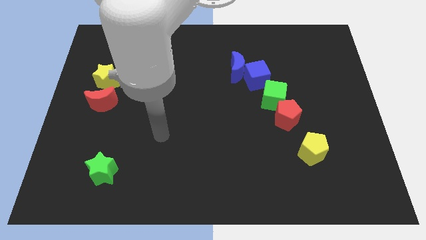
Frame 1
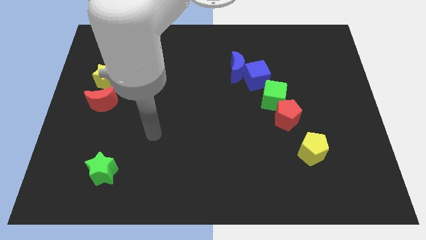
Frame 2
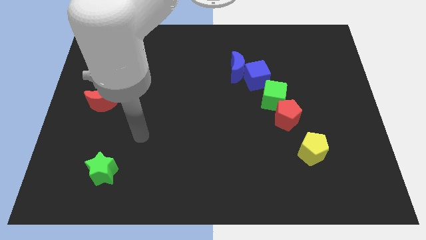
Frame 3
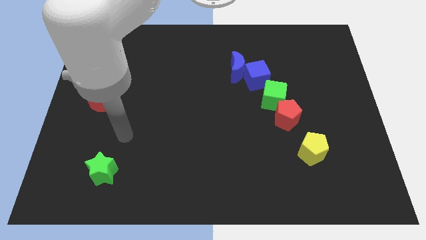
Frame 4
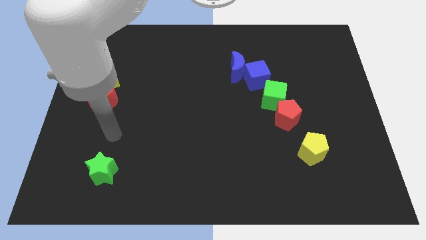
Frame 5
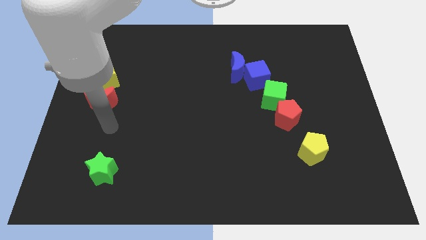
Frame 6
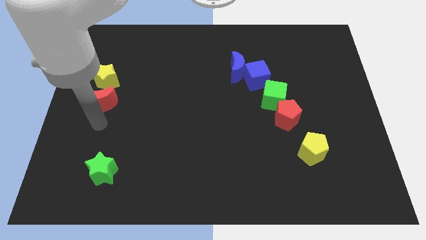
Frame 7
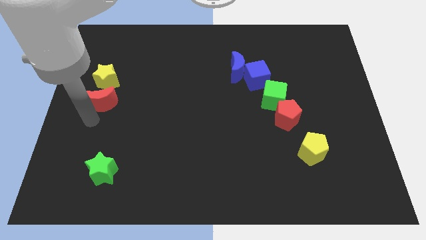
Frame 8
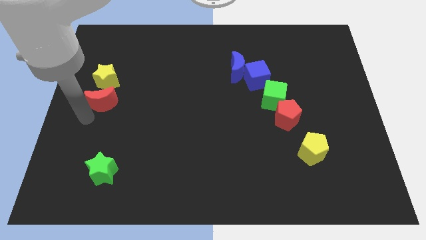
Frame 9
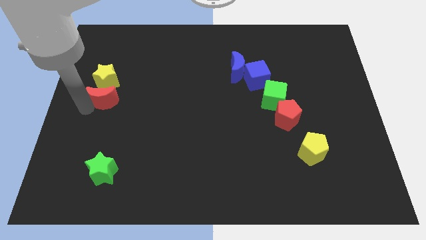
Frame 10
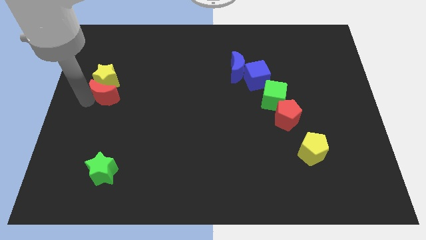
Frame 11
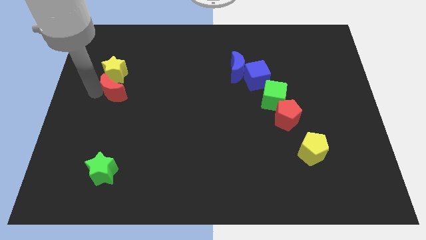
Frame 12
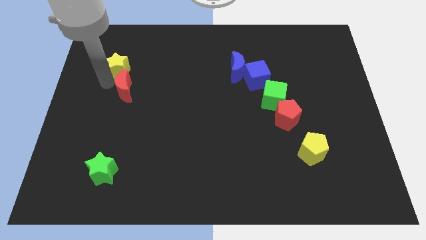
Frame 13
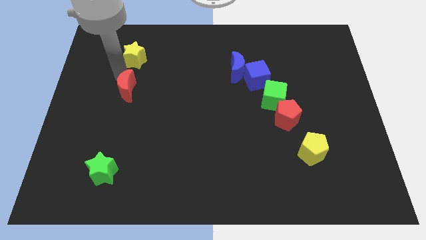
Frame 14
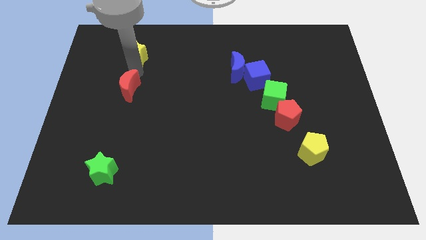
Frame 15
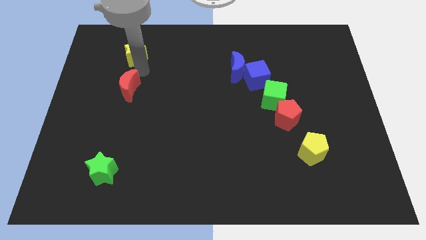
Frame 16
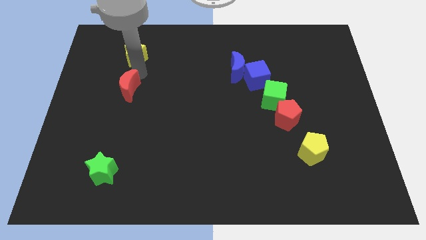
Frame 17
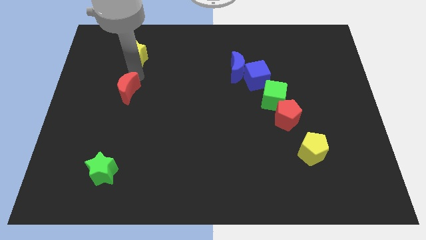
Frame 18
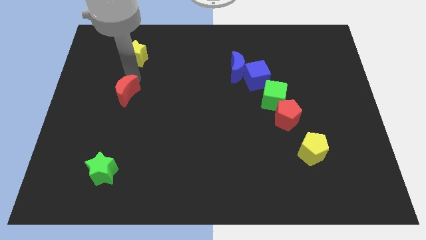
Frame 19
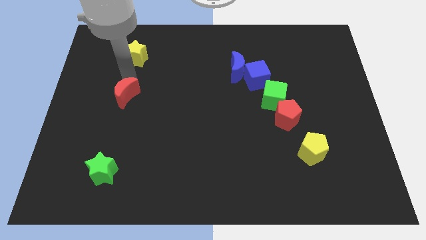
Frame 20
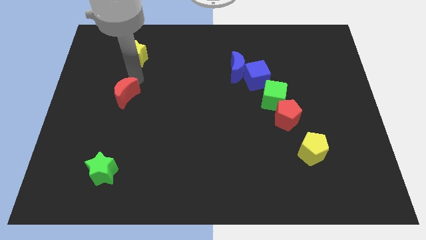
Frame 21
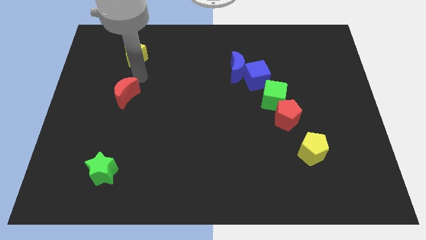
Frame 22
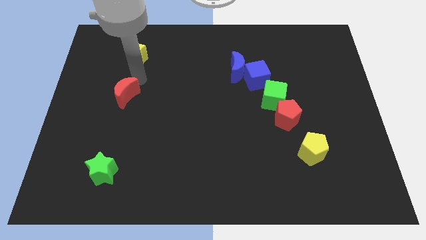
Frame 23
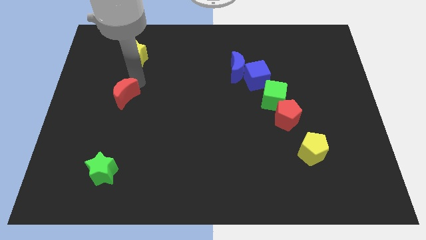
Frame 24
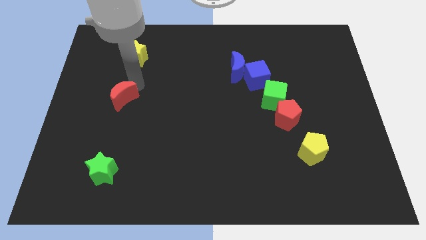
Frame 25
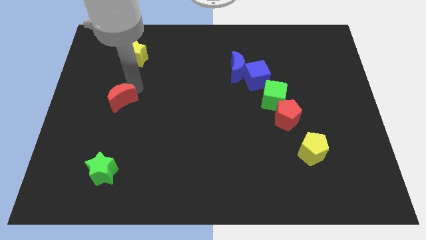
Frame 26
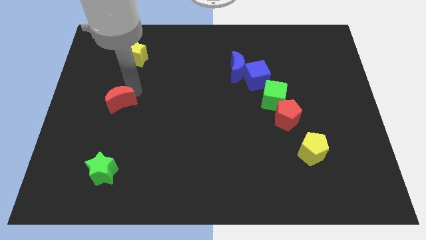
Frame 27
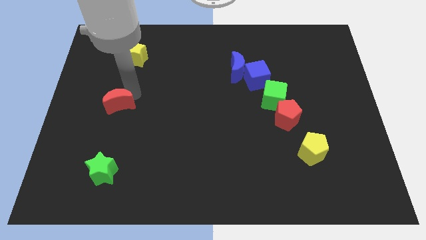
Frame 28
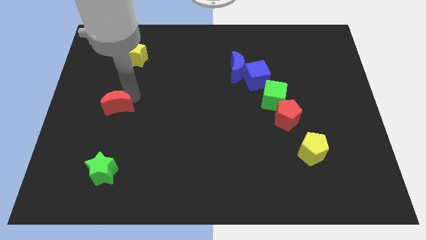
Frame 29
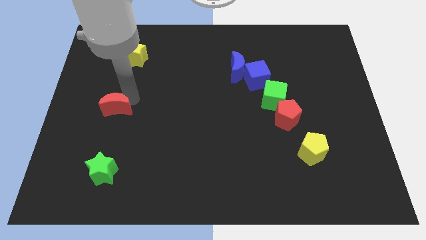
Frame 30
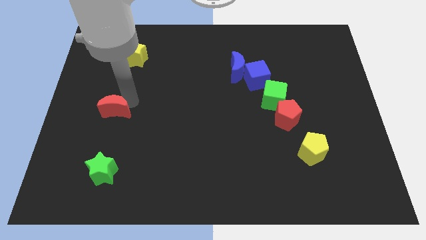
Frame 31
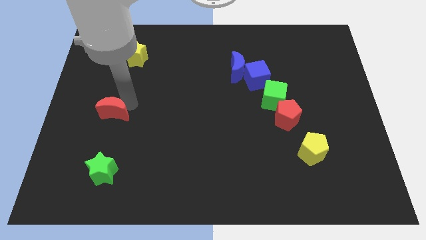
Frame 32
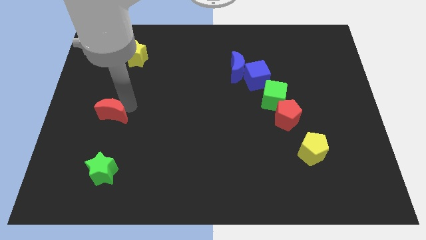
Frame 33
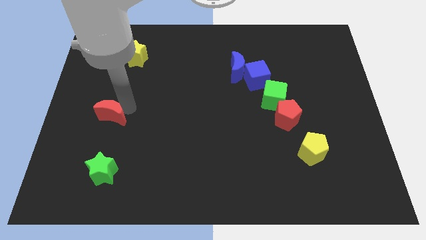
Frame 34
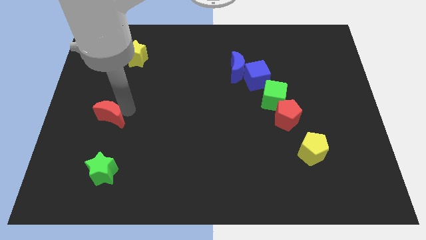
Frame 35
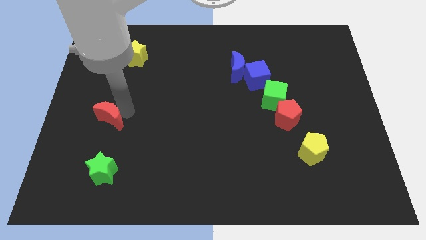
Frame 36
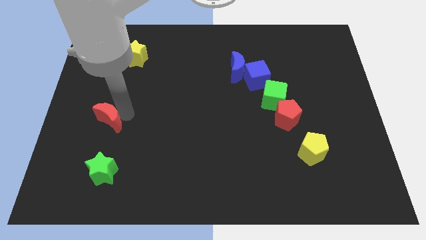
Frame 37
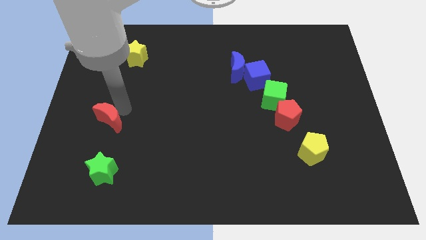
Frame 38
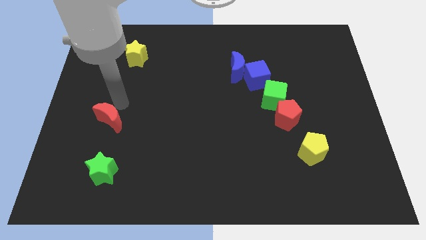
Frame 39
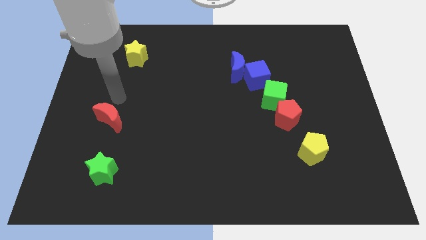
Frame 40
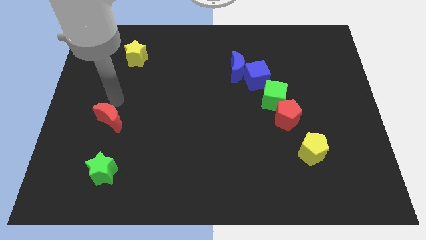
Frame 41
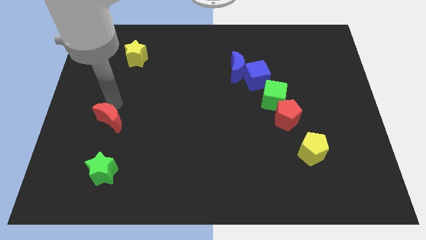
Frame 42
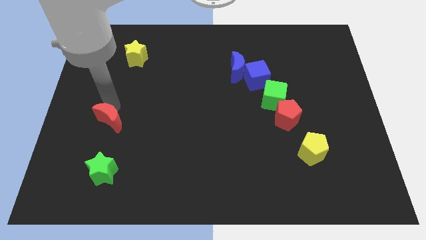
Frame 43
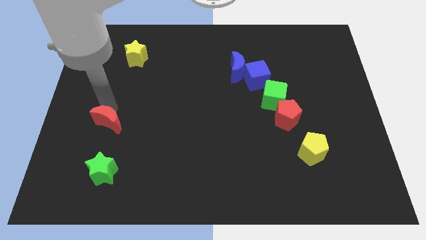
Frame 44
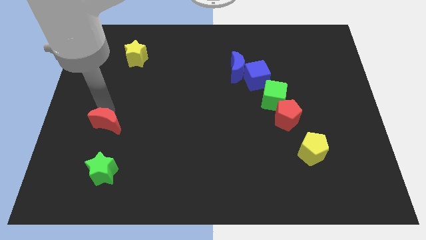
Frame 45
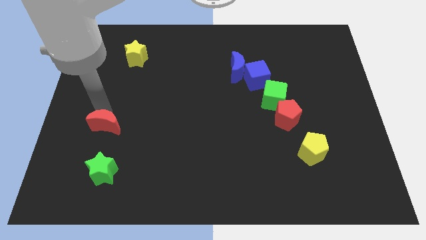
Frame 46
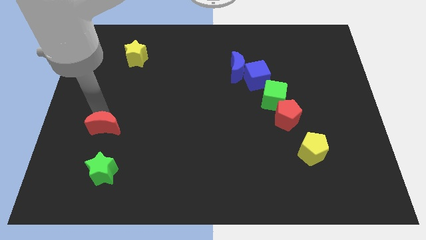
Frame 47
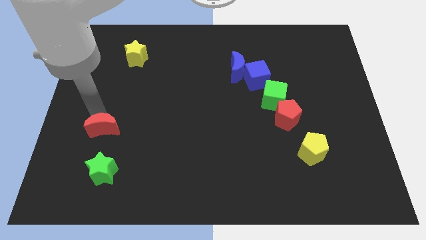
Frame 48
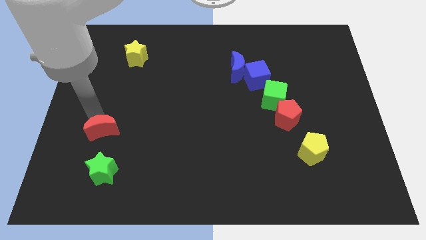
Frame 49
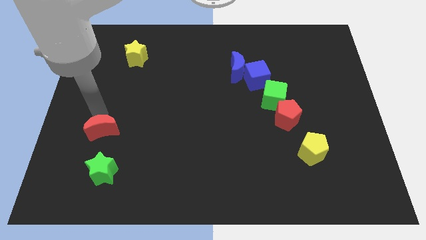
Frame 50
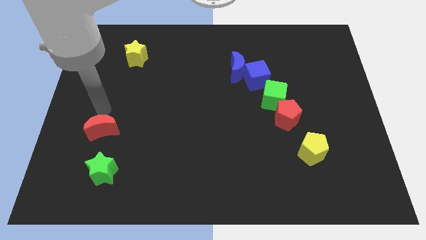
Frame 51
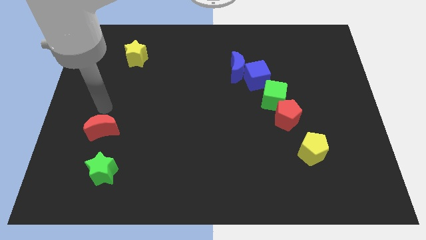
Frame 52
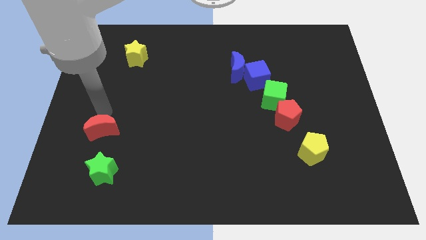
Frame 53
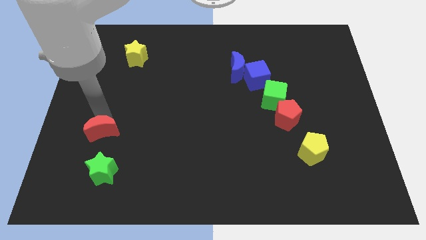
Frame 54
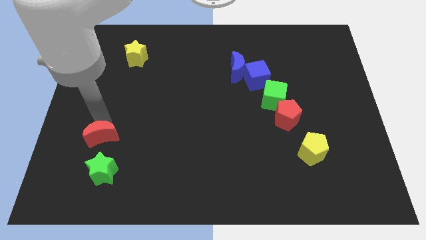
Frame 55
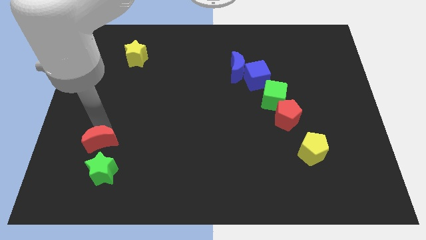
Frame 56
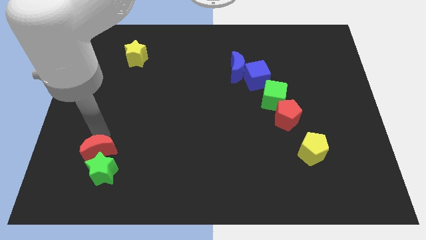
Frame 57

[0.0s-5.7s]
move the red moon towards the green star

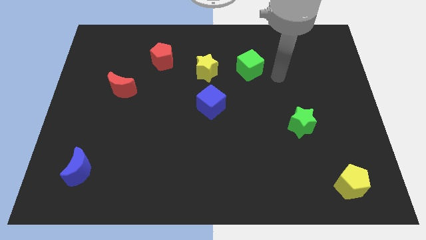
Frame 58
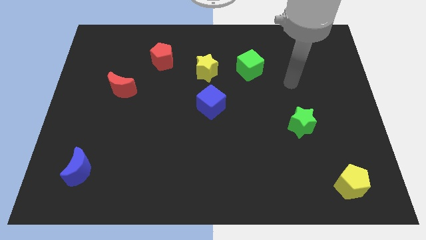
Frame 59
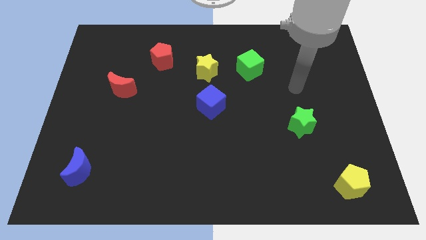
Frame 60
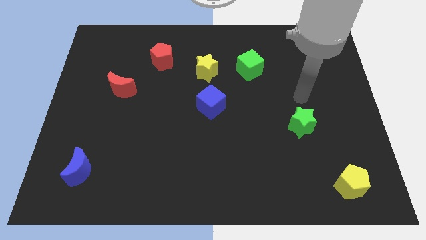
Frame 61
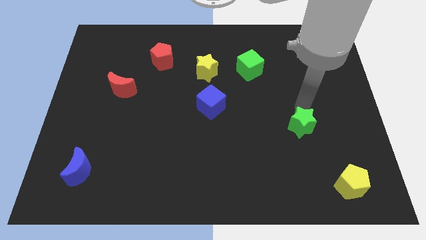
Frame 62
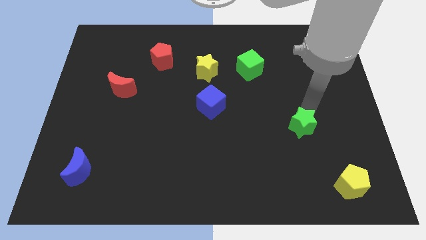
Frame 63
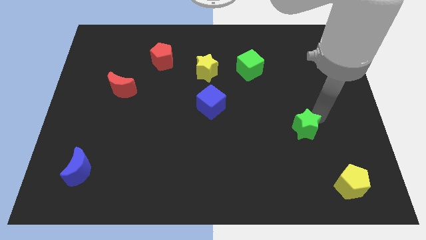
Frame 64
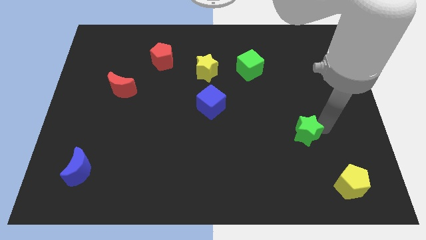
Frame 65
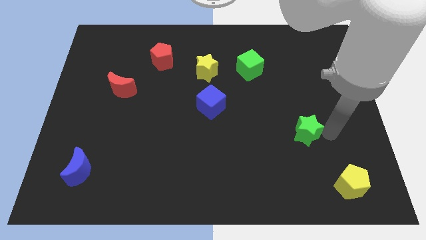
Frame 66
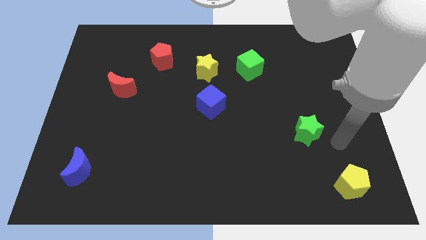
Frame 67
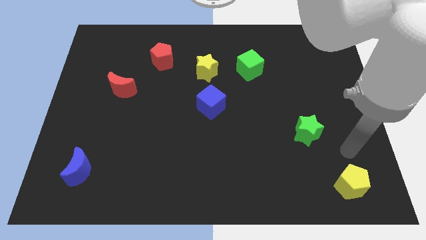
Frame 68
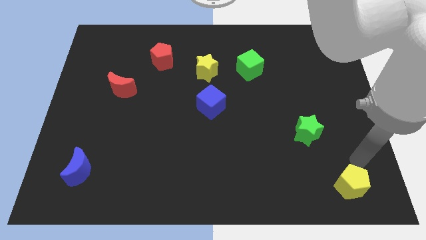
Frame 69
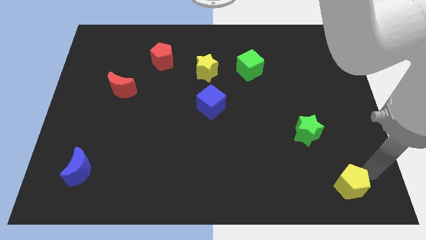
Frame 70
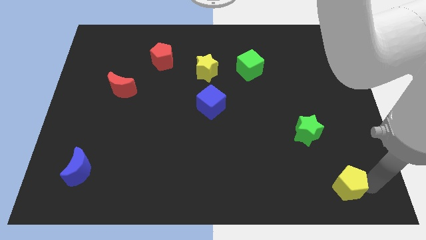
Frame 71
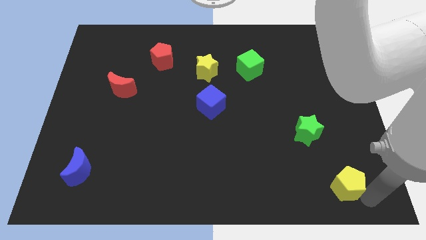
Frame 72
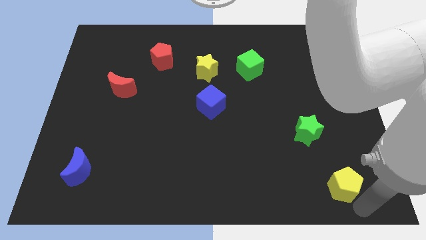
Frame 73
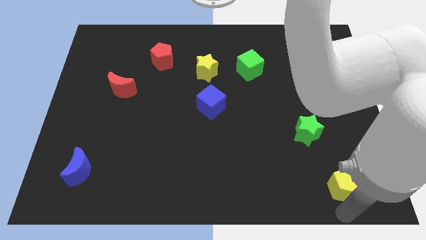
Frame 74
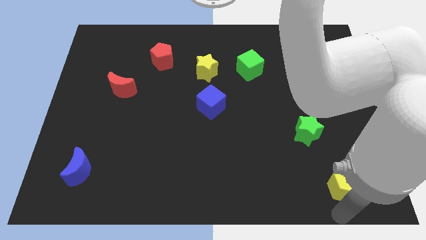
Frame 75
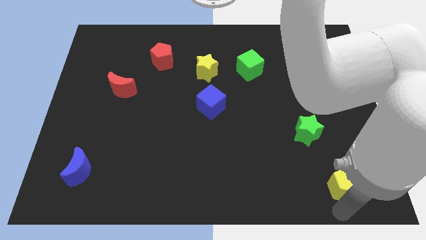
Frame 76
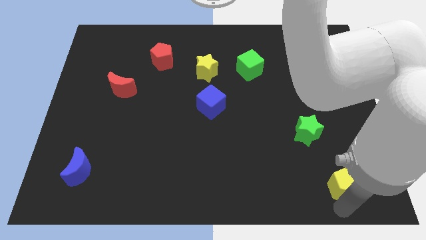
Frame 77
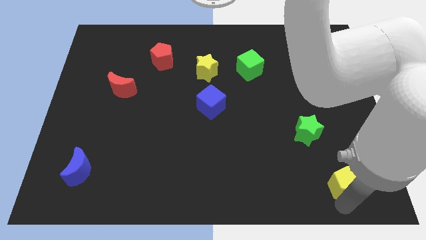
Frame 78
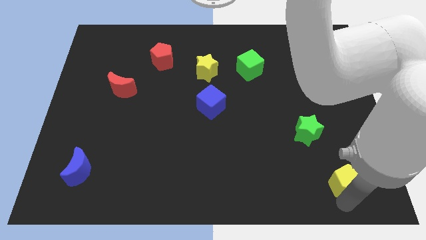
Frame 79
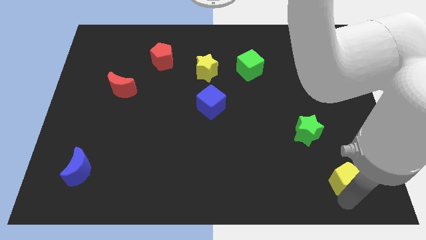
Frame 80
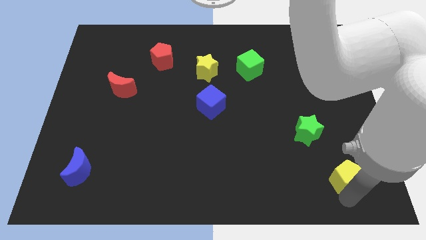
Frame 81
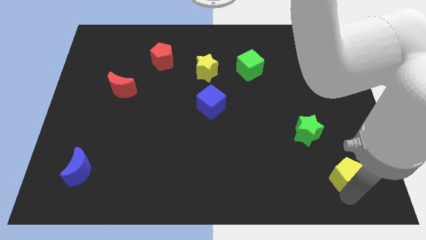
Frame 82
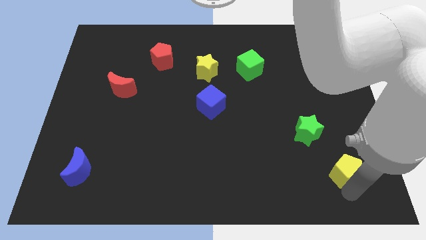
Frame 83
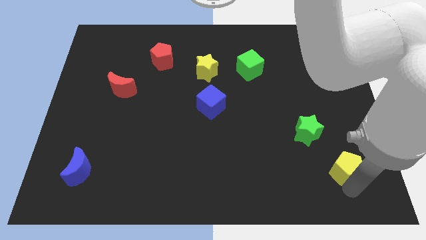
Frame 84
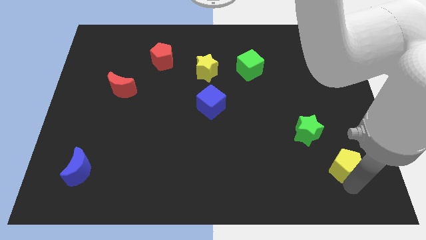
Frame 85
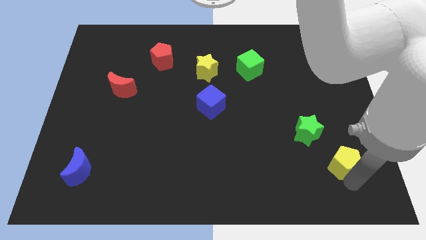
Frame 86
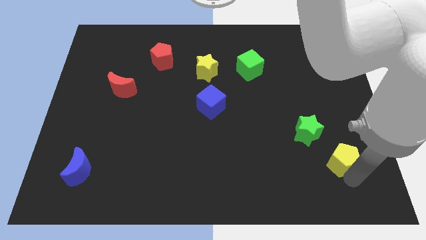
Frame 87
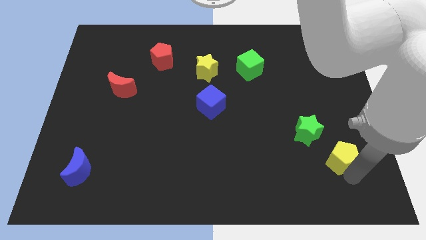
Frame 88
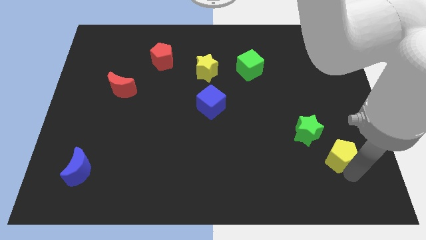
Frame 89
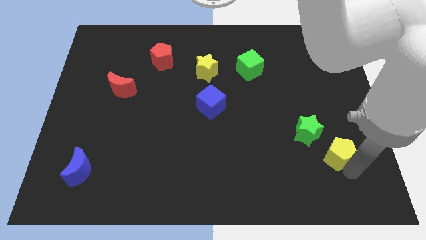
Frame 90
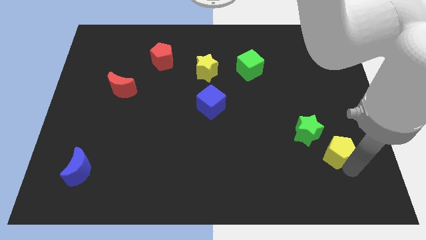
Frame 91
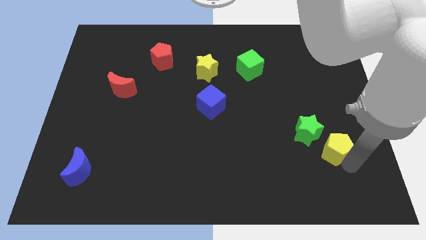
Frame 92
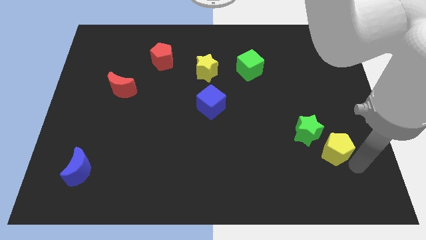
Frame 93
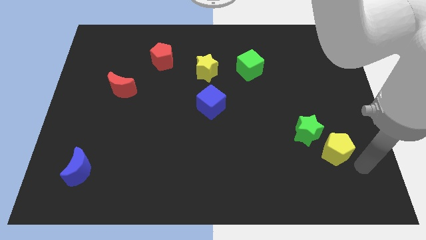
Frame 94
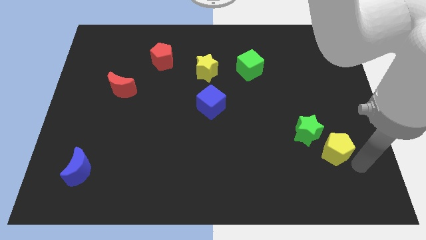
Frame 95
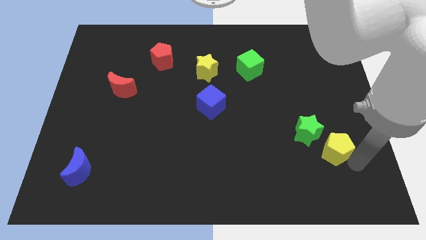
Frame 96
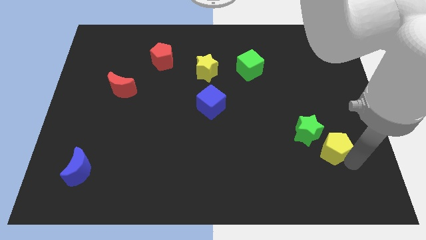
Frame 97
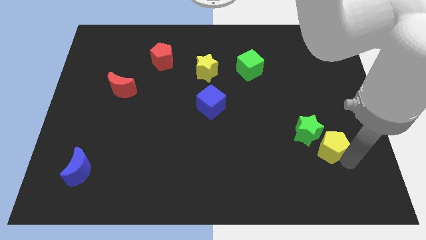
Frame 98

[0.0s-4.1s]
slide the yellow pentagon towards the green star
